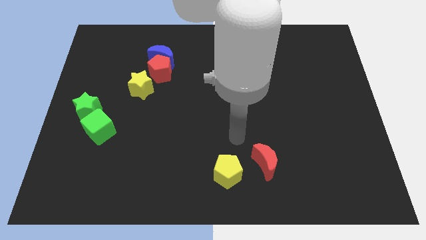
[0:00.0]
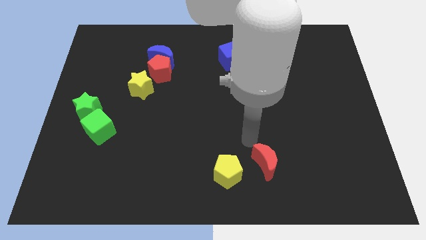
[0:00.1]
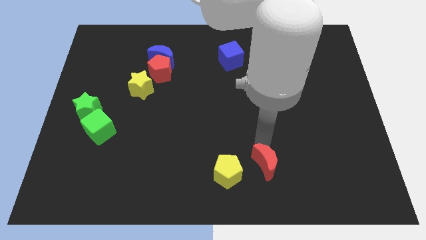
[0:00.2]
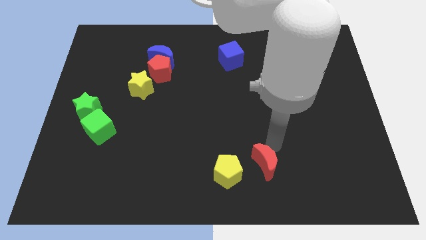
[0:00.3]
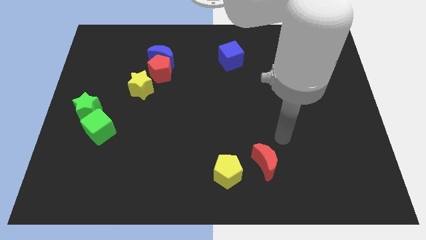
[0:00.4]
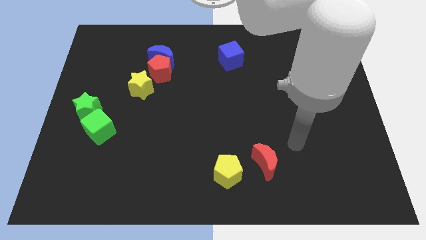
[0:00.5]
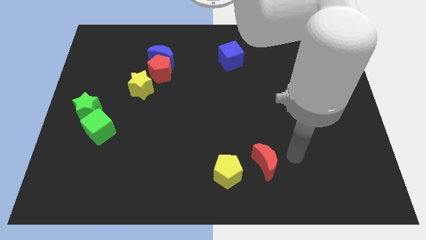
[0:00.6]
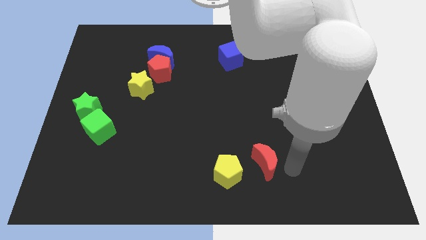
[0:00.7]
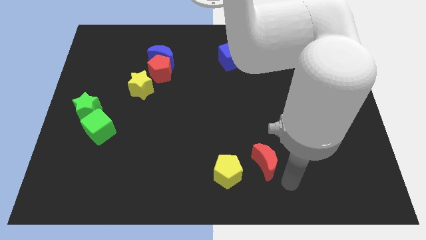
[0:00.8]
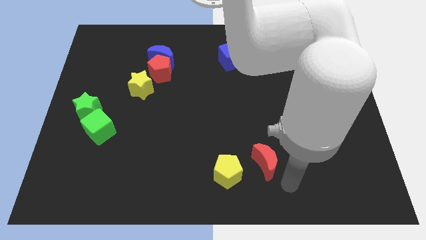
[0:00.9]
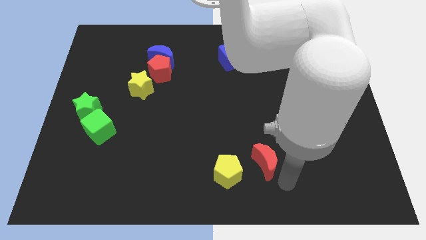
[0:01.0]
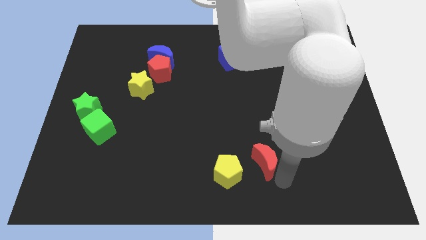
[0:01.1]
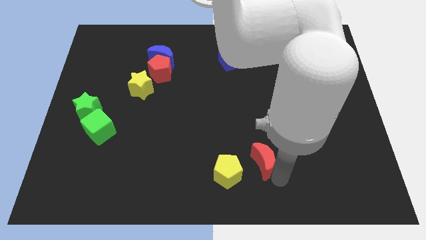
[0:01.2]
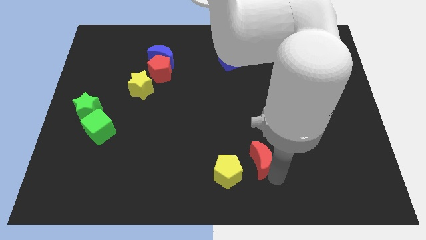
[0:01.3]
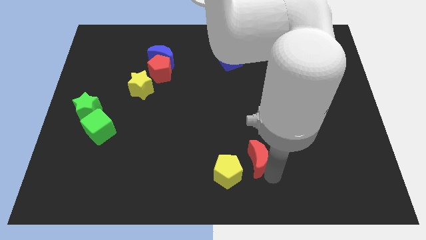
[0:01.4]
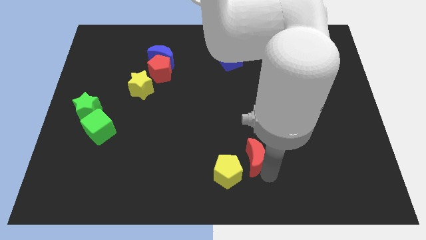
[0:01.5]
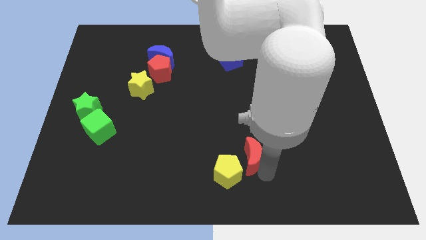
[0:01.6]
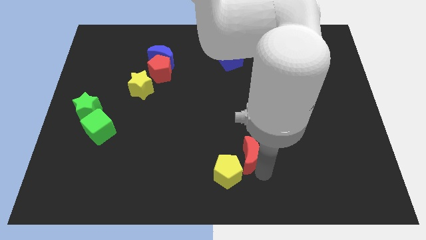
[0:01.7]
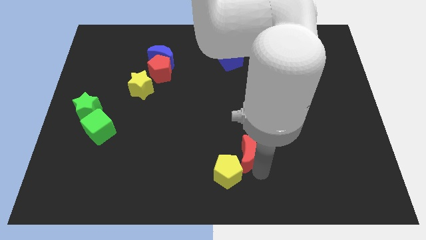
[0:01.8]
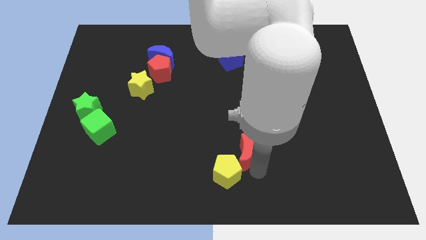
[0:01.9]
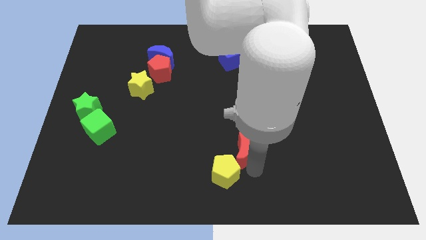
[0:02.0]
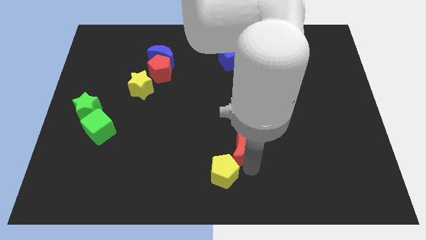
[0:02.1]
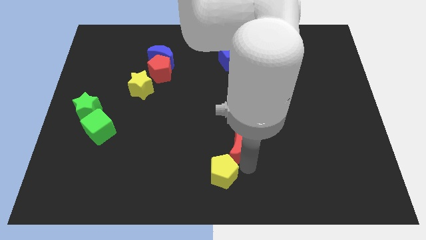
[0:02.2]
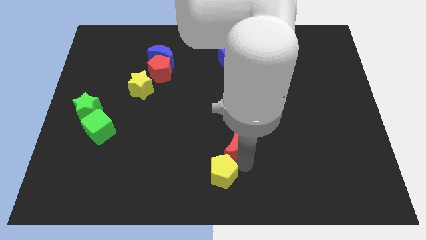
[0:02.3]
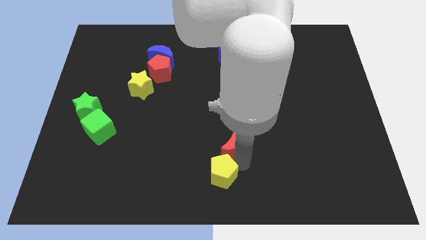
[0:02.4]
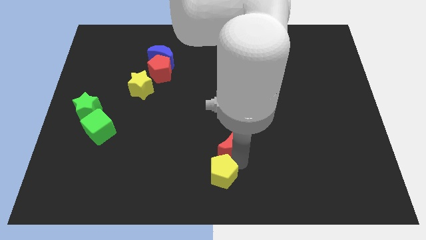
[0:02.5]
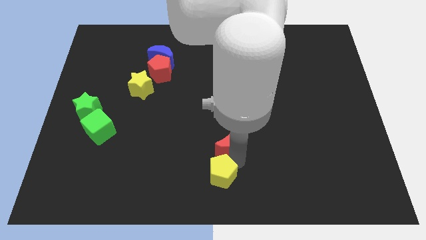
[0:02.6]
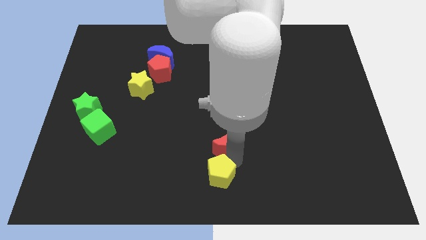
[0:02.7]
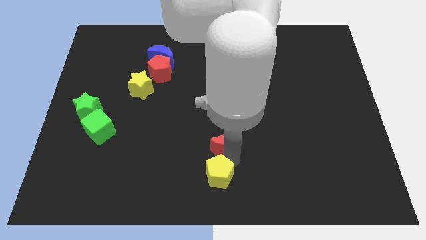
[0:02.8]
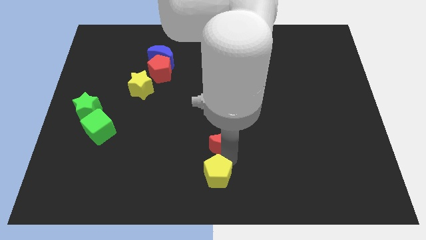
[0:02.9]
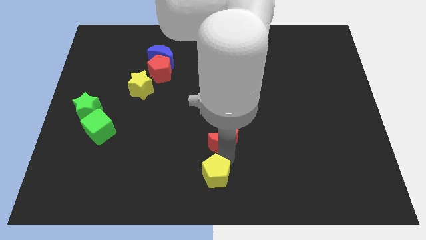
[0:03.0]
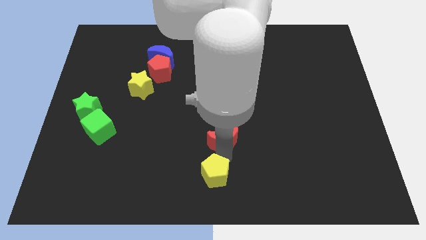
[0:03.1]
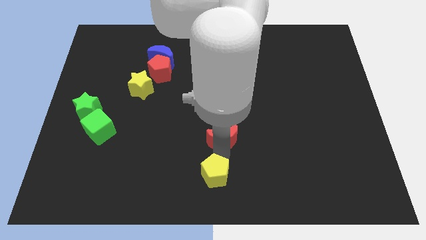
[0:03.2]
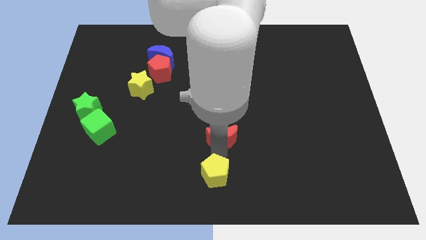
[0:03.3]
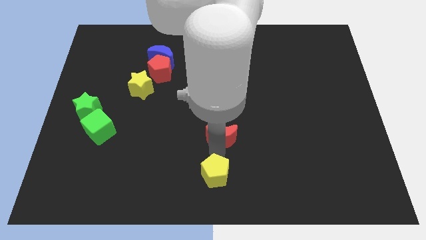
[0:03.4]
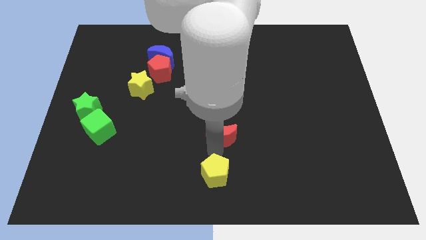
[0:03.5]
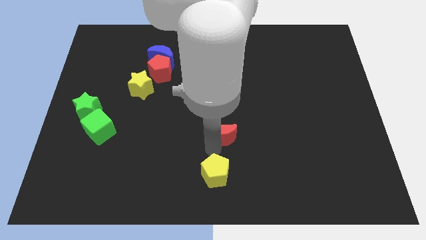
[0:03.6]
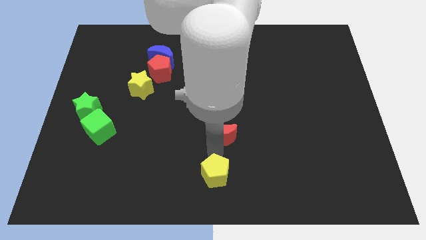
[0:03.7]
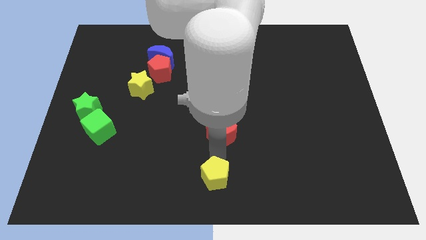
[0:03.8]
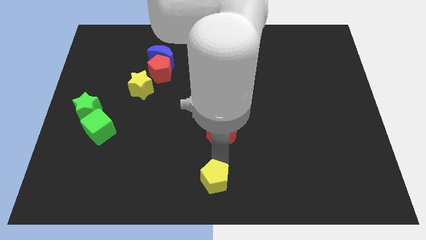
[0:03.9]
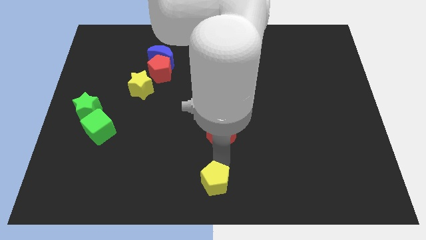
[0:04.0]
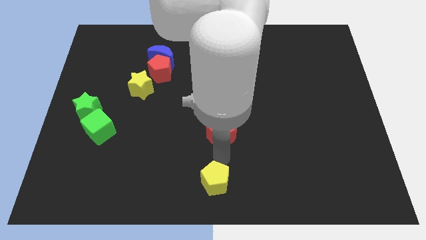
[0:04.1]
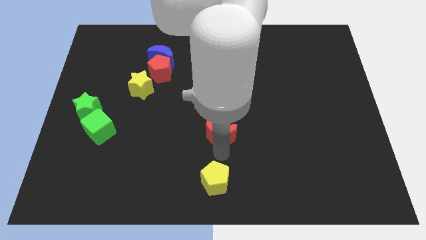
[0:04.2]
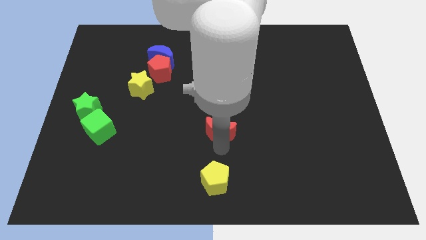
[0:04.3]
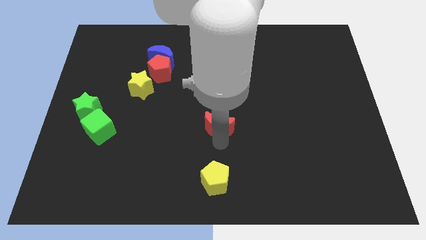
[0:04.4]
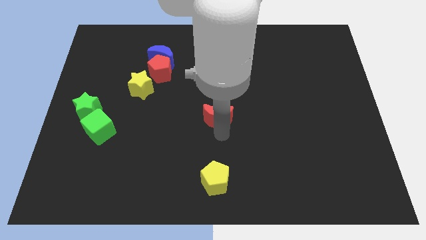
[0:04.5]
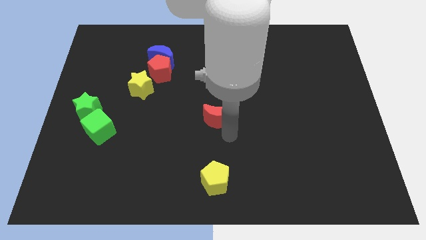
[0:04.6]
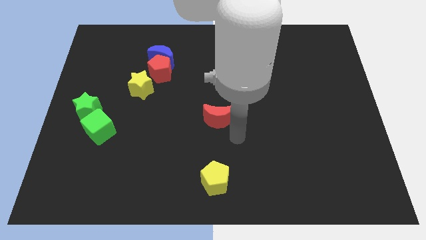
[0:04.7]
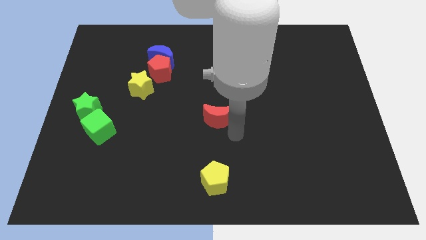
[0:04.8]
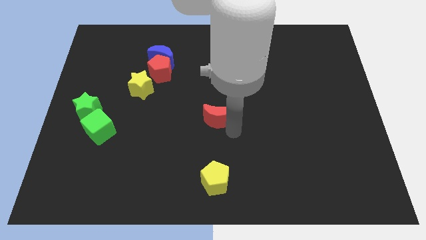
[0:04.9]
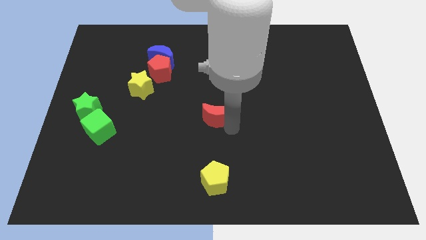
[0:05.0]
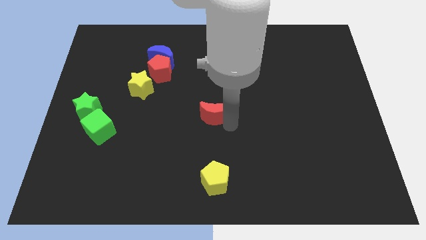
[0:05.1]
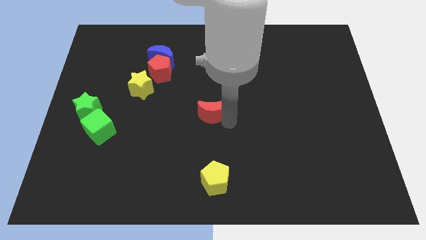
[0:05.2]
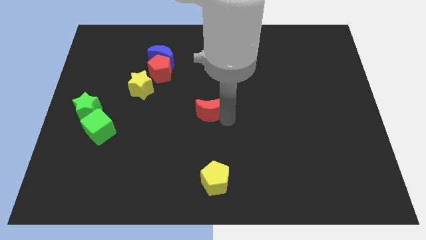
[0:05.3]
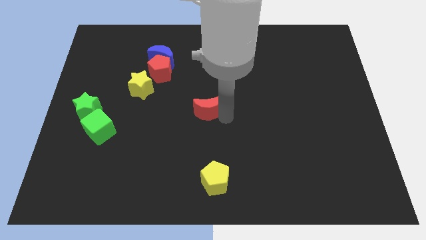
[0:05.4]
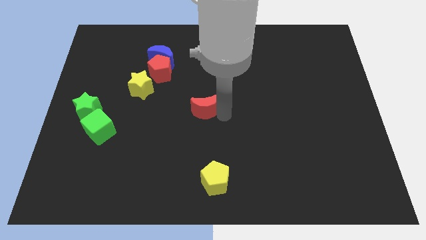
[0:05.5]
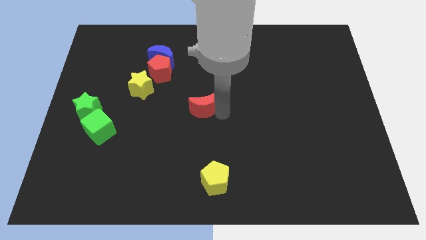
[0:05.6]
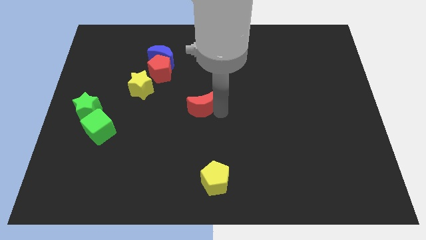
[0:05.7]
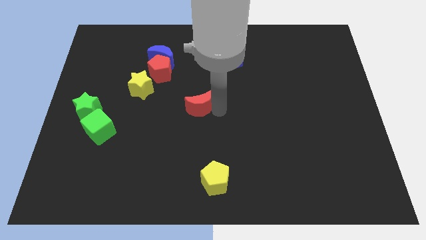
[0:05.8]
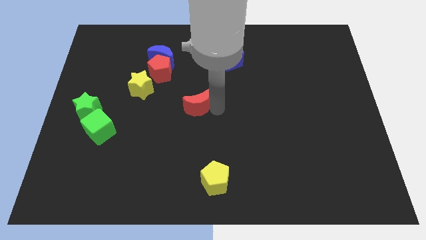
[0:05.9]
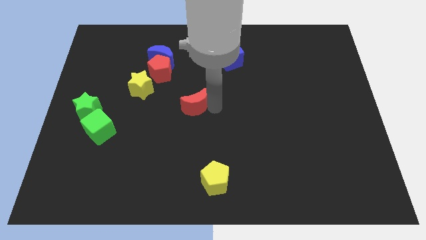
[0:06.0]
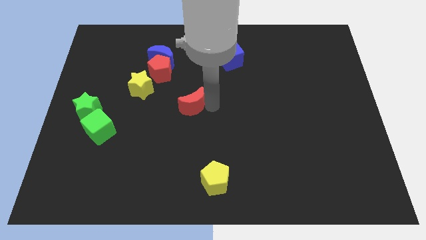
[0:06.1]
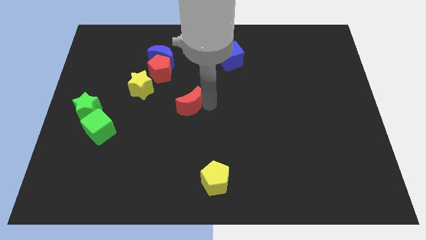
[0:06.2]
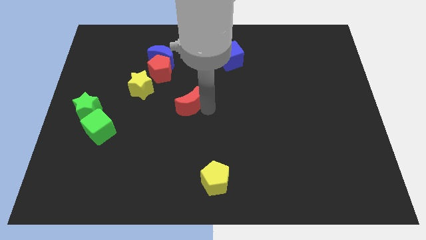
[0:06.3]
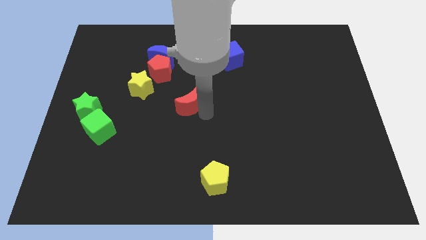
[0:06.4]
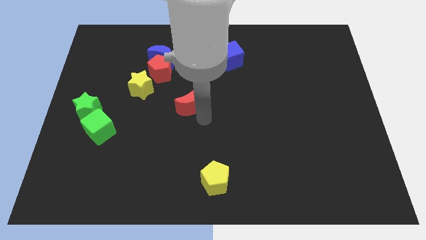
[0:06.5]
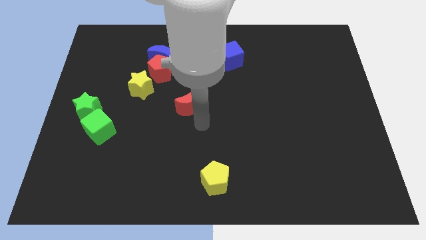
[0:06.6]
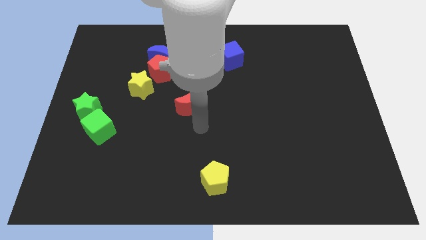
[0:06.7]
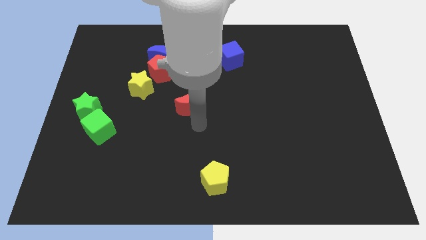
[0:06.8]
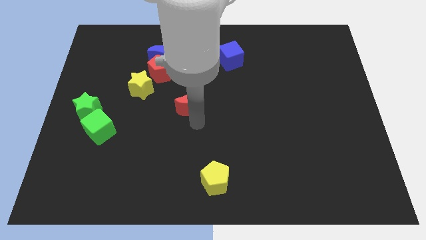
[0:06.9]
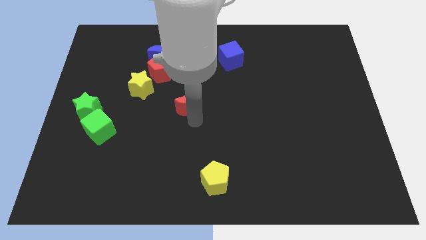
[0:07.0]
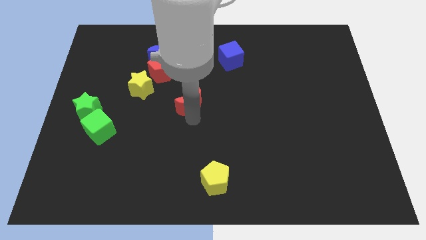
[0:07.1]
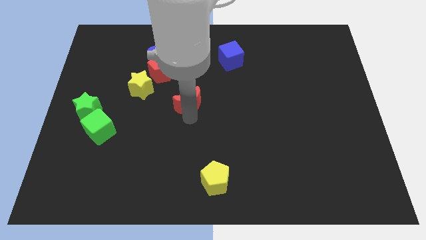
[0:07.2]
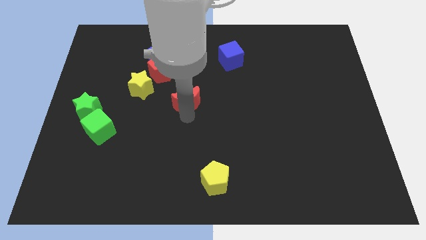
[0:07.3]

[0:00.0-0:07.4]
slide the red moon to the right of the yellow star
